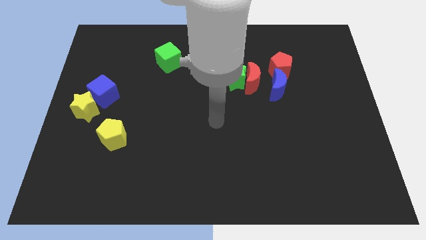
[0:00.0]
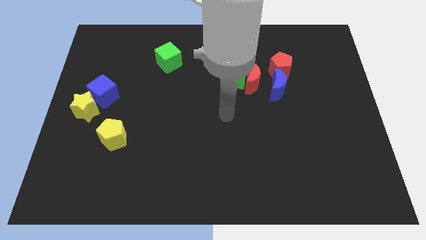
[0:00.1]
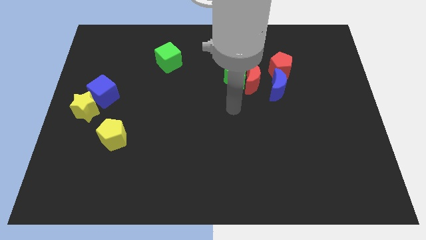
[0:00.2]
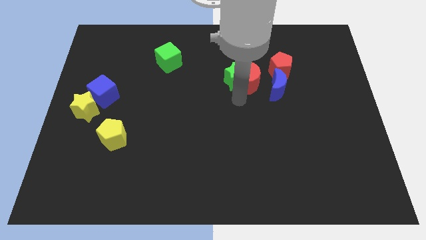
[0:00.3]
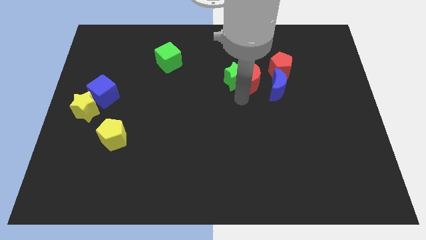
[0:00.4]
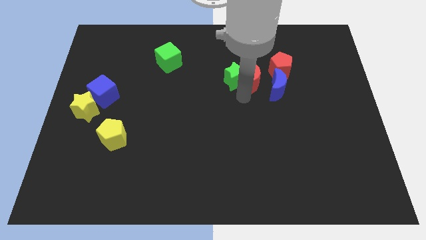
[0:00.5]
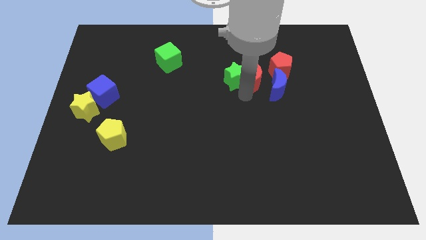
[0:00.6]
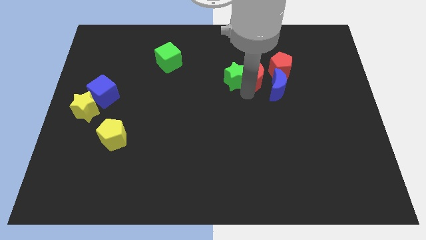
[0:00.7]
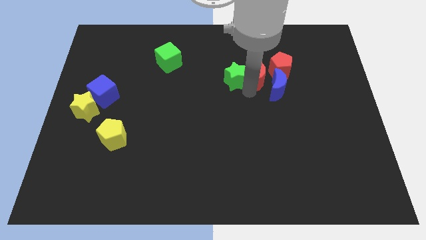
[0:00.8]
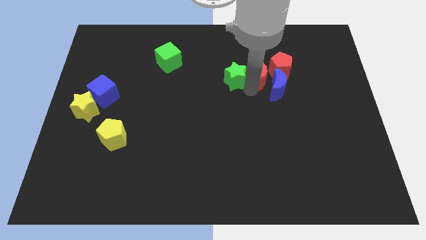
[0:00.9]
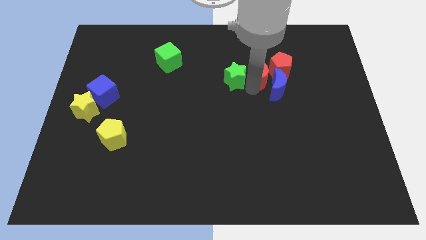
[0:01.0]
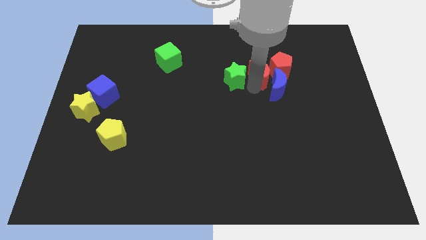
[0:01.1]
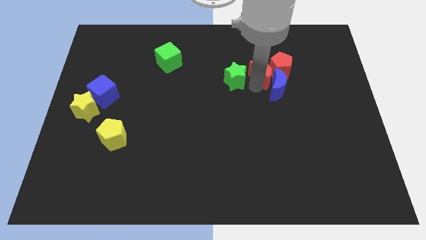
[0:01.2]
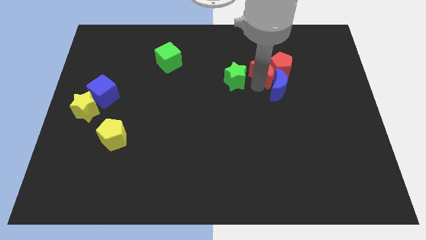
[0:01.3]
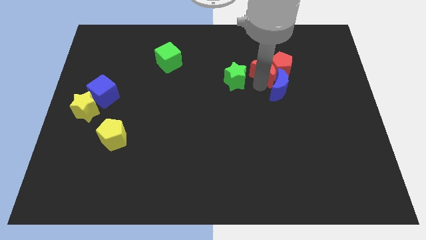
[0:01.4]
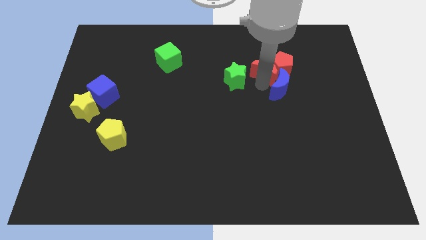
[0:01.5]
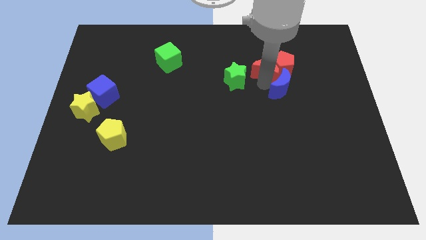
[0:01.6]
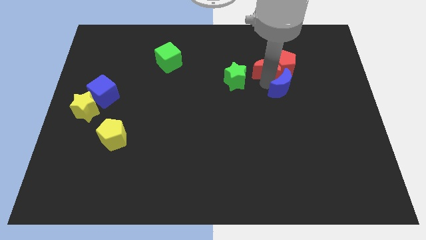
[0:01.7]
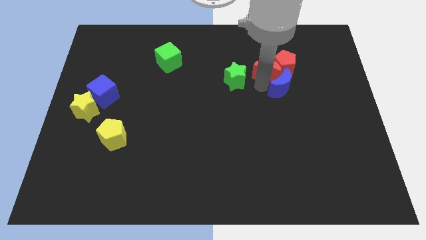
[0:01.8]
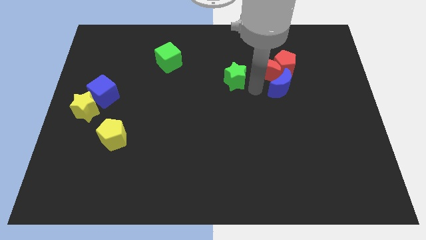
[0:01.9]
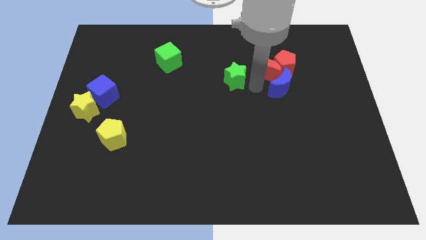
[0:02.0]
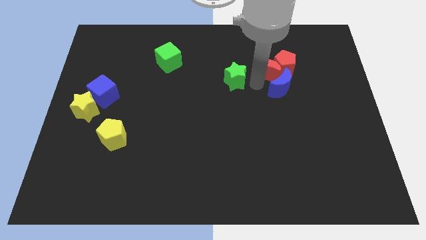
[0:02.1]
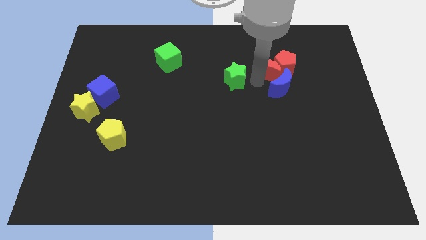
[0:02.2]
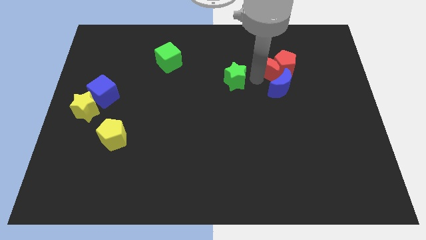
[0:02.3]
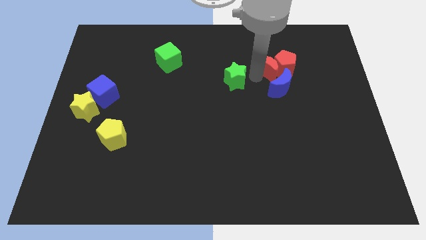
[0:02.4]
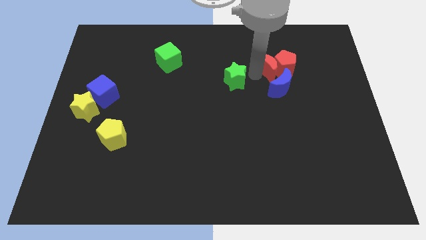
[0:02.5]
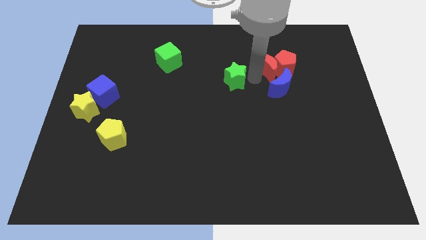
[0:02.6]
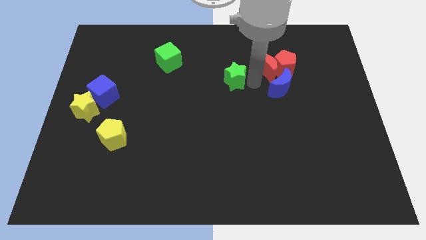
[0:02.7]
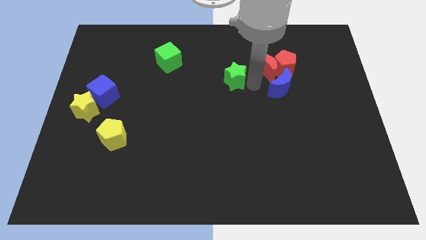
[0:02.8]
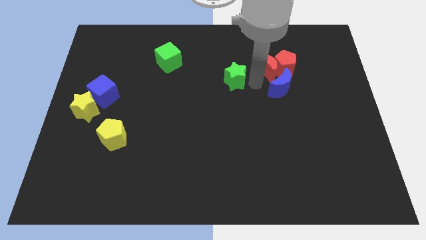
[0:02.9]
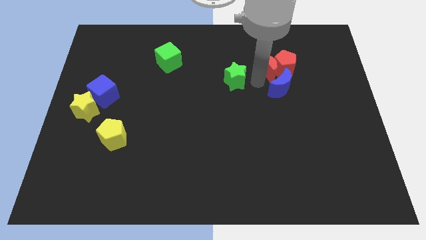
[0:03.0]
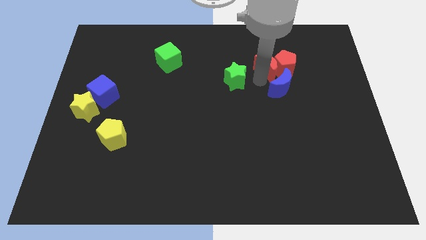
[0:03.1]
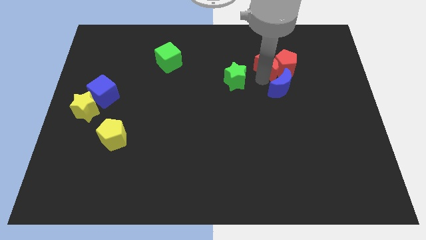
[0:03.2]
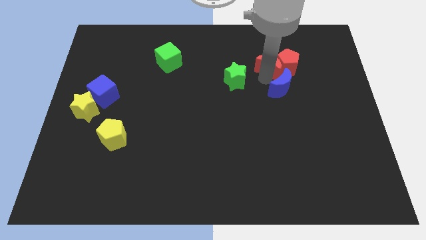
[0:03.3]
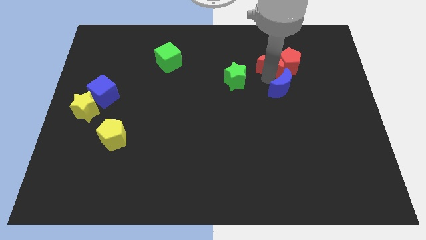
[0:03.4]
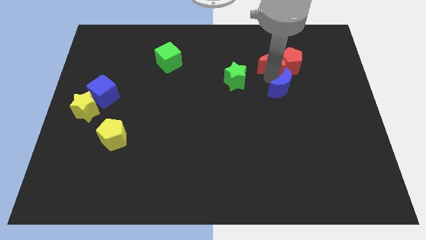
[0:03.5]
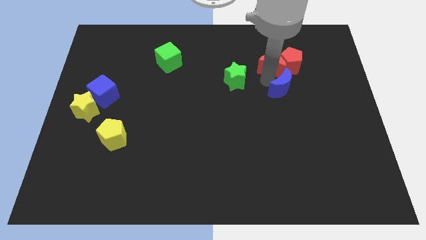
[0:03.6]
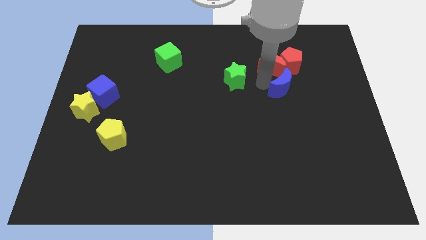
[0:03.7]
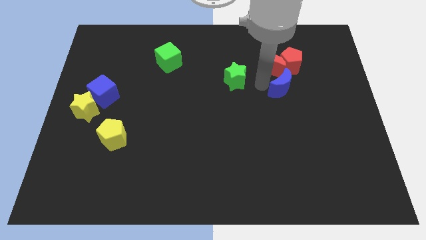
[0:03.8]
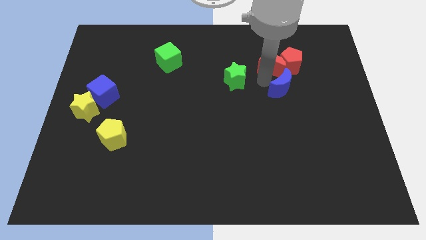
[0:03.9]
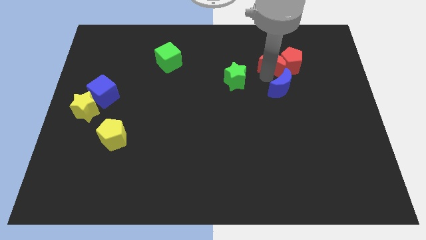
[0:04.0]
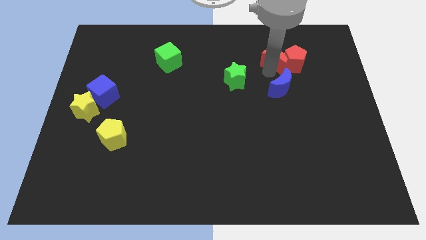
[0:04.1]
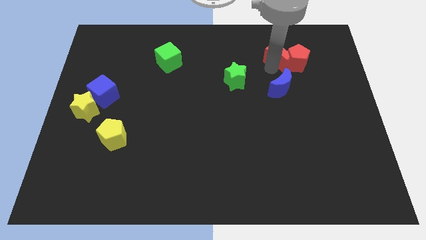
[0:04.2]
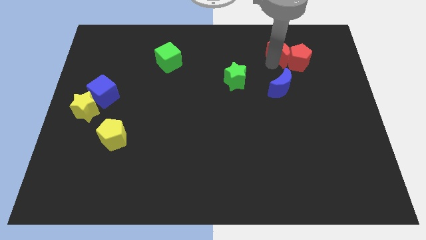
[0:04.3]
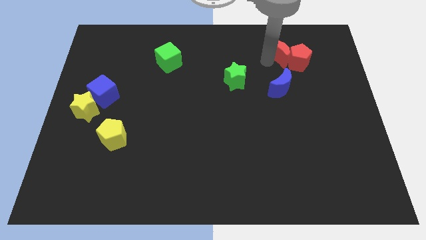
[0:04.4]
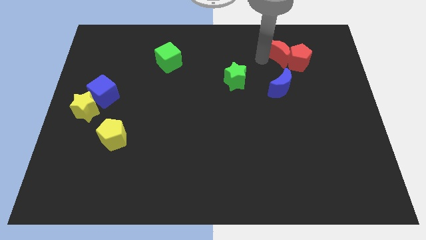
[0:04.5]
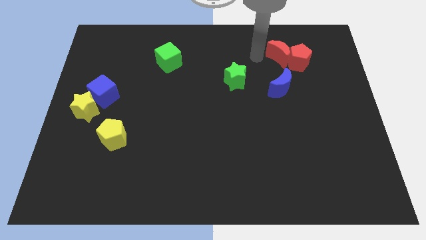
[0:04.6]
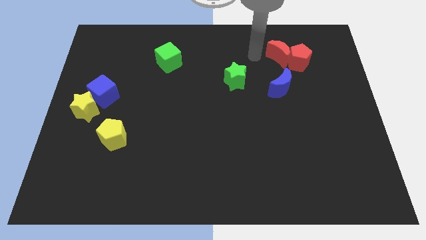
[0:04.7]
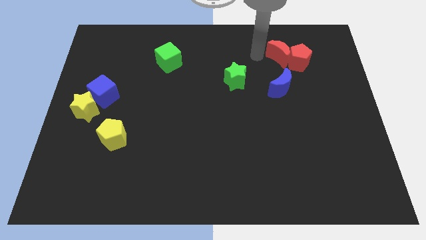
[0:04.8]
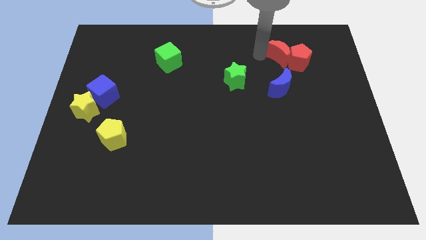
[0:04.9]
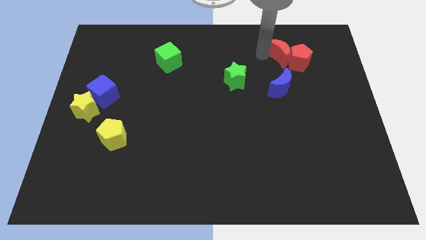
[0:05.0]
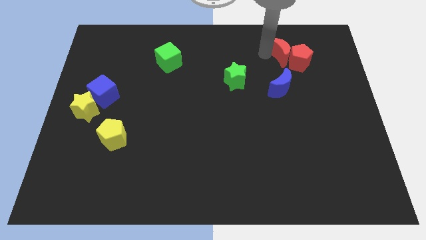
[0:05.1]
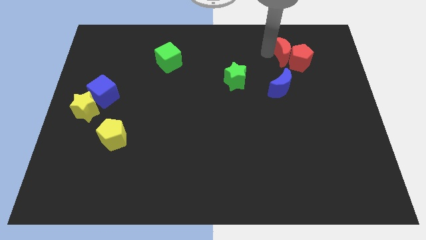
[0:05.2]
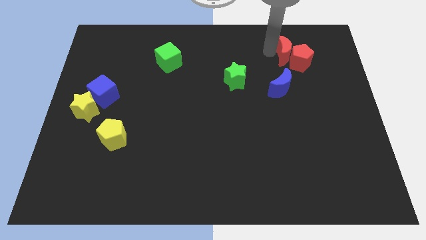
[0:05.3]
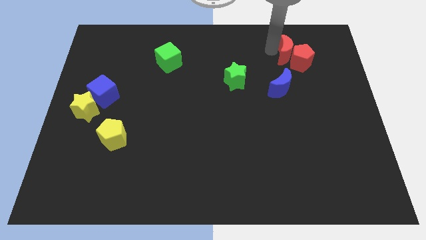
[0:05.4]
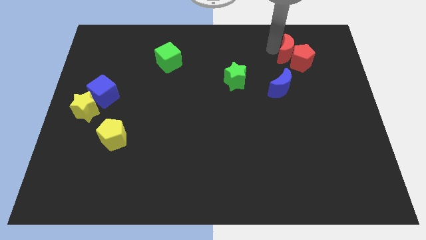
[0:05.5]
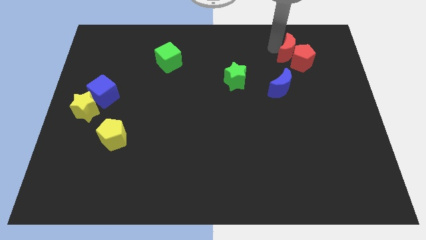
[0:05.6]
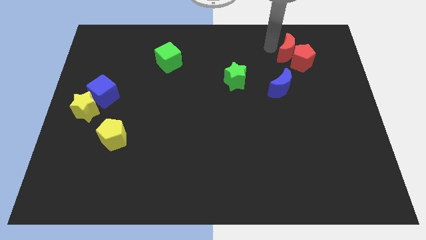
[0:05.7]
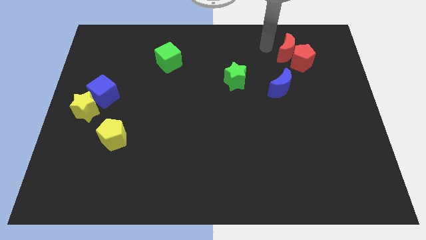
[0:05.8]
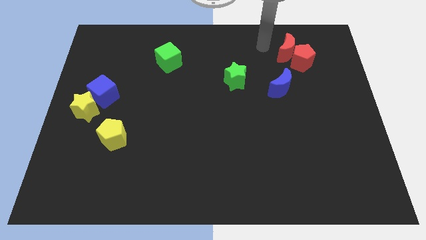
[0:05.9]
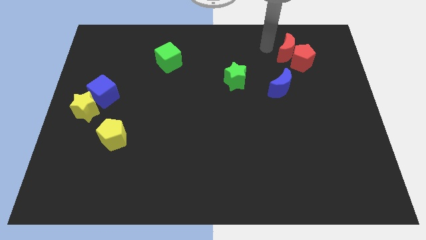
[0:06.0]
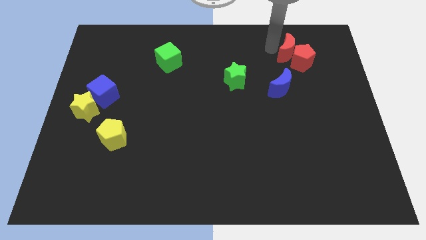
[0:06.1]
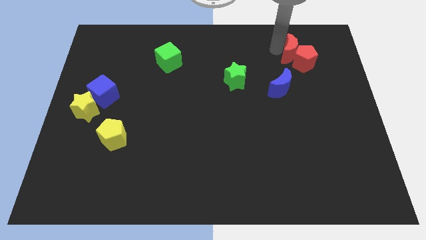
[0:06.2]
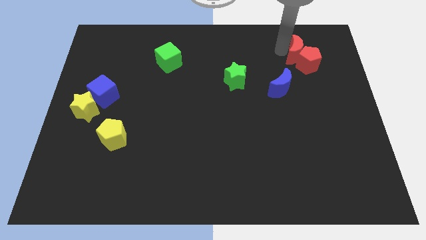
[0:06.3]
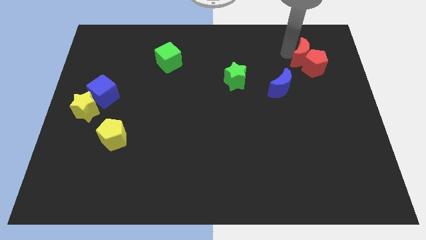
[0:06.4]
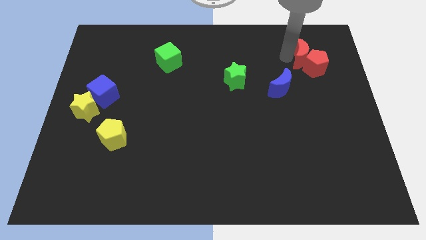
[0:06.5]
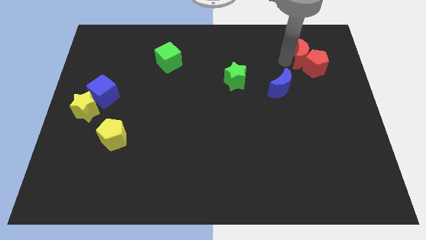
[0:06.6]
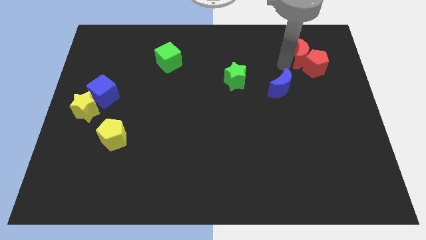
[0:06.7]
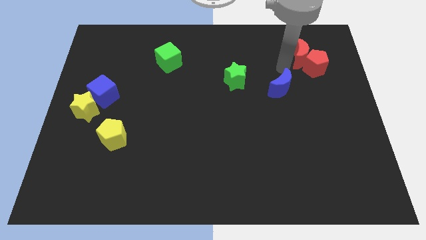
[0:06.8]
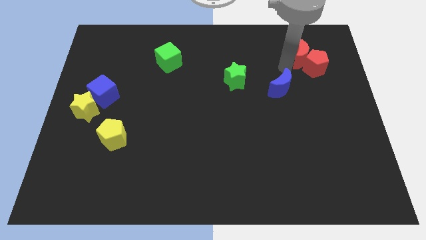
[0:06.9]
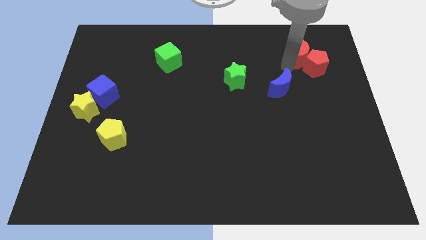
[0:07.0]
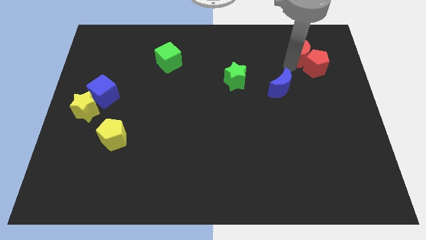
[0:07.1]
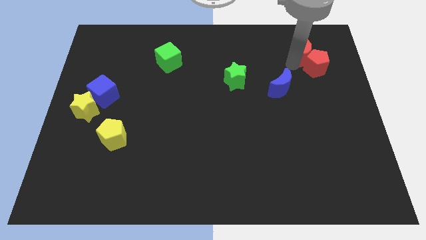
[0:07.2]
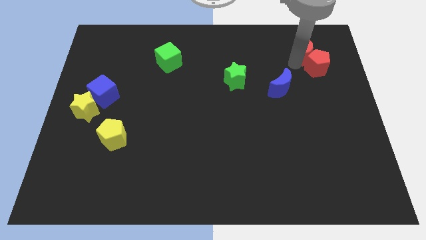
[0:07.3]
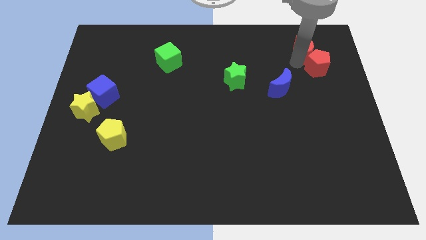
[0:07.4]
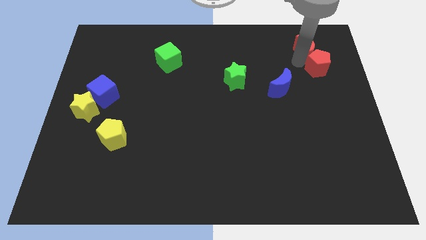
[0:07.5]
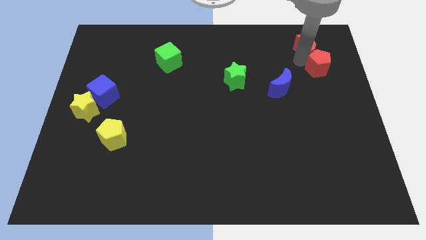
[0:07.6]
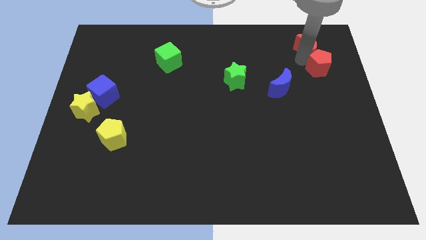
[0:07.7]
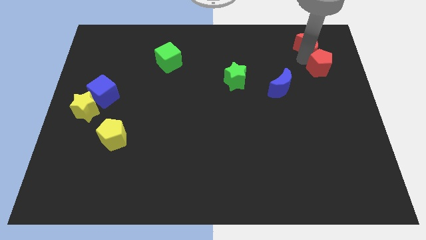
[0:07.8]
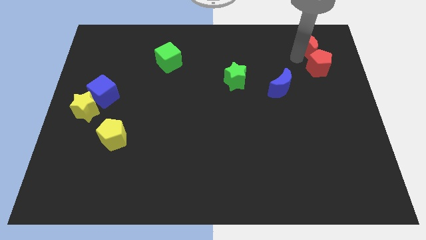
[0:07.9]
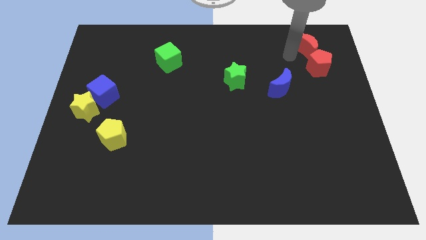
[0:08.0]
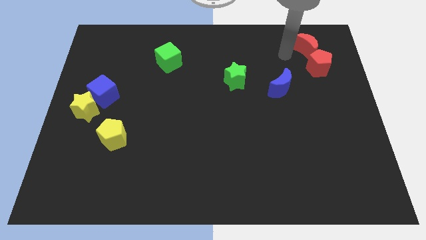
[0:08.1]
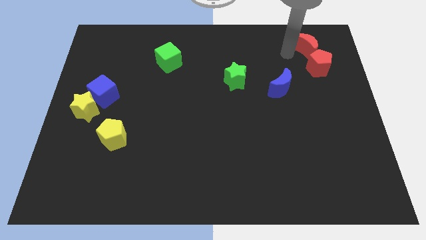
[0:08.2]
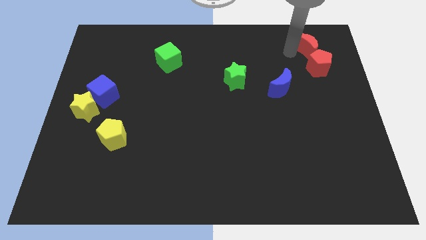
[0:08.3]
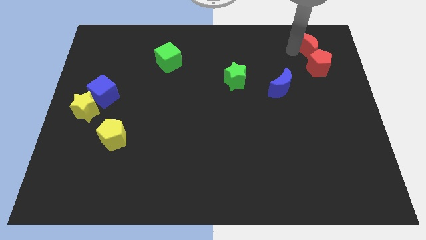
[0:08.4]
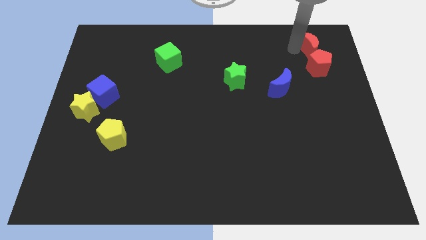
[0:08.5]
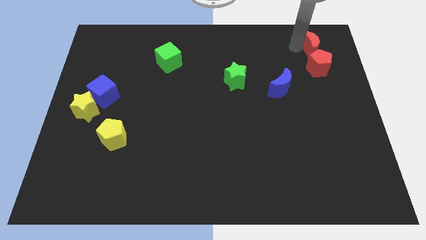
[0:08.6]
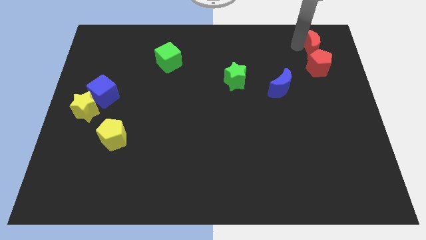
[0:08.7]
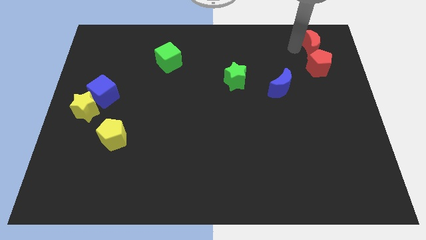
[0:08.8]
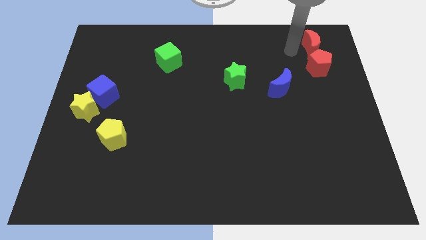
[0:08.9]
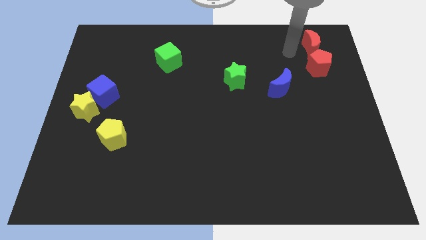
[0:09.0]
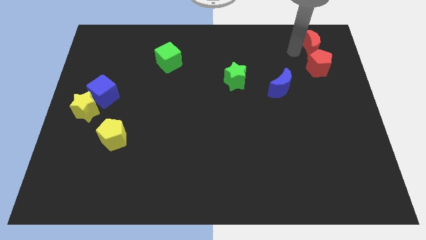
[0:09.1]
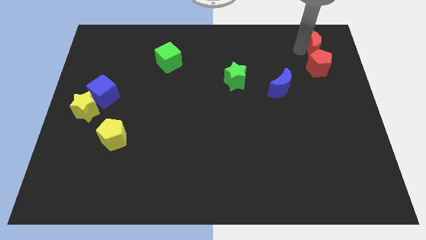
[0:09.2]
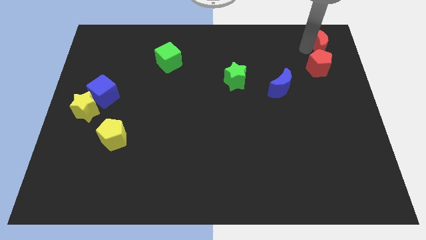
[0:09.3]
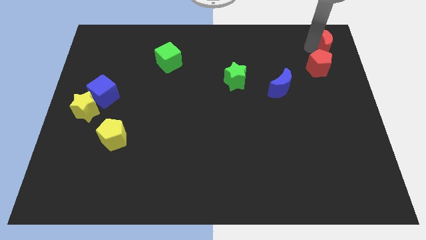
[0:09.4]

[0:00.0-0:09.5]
move the red moon to the top right
